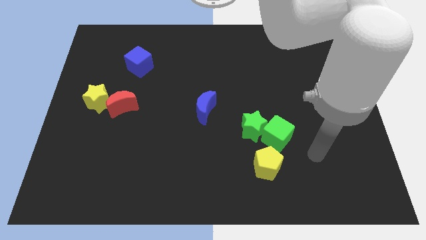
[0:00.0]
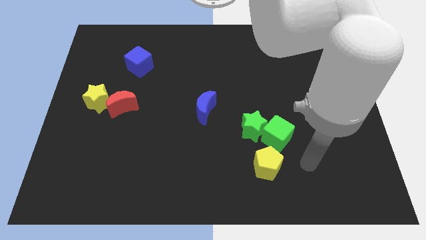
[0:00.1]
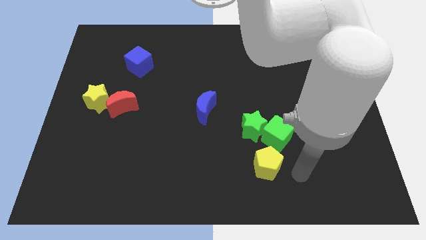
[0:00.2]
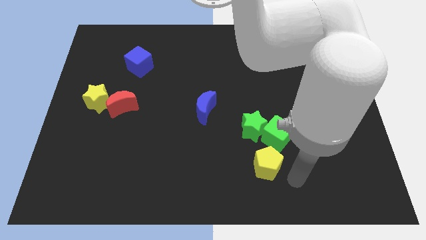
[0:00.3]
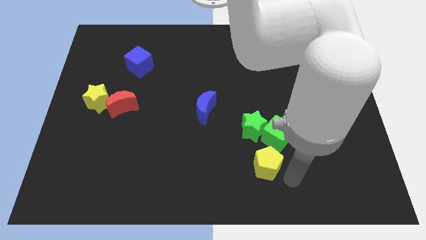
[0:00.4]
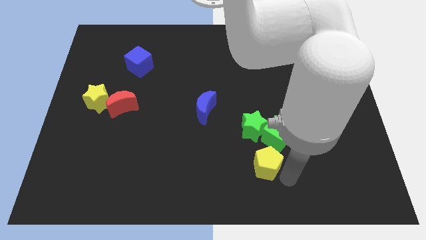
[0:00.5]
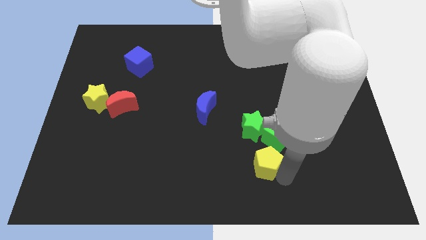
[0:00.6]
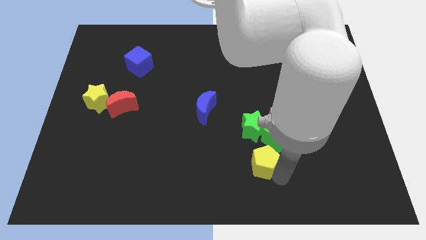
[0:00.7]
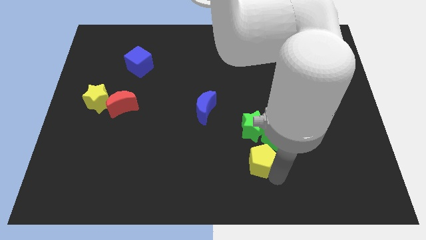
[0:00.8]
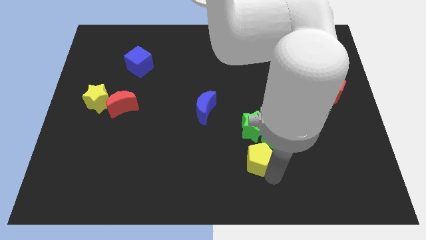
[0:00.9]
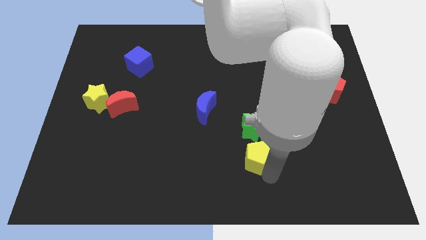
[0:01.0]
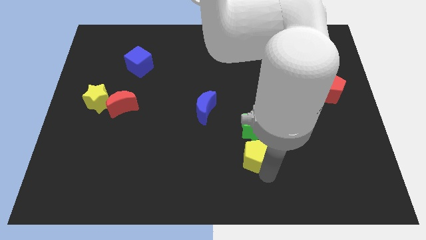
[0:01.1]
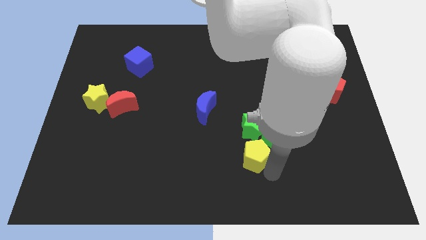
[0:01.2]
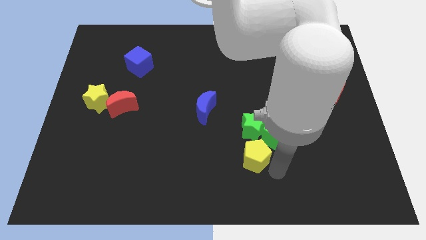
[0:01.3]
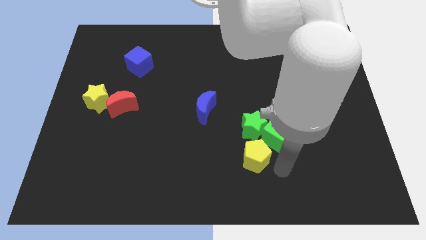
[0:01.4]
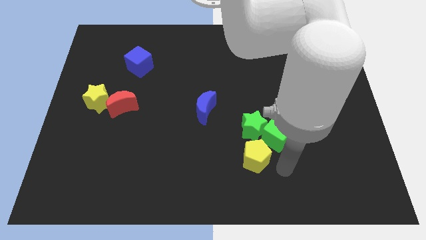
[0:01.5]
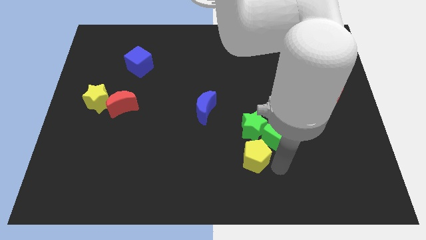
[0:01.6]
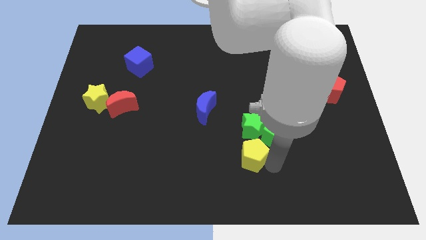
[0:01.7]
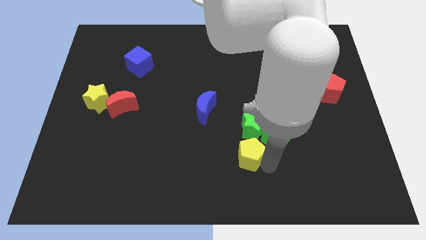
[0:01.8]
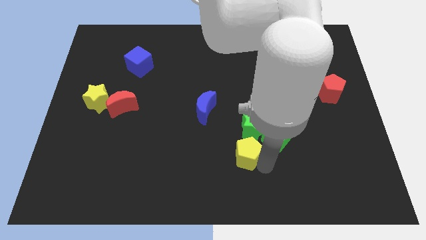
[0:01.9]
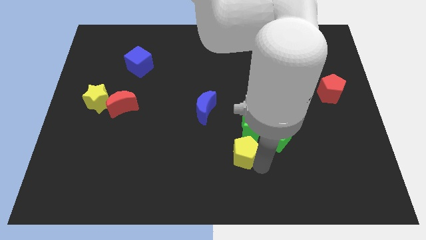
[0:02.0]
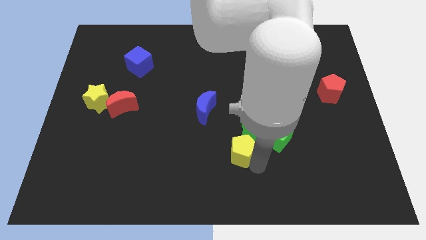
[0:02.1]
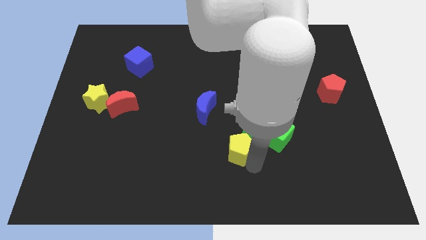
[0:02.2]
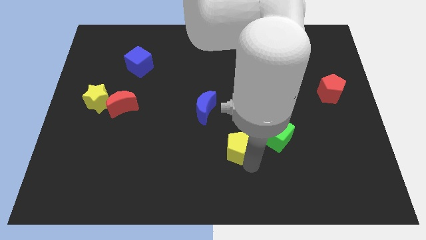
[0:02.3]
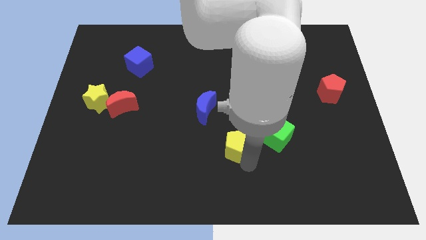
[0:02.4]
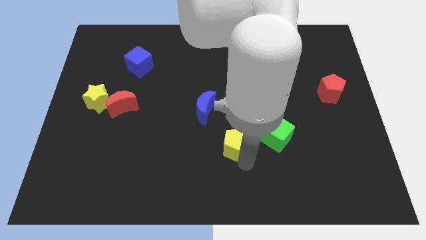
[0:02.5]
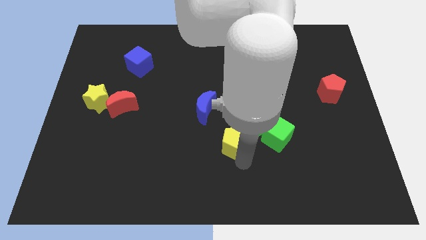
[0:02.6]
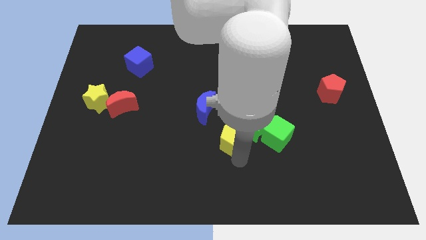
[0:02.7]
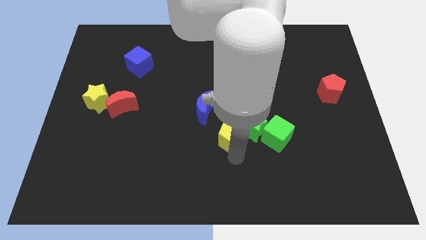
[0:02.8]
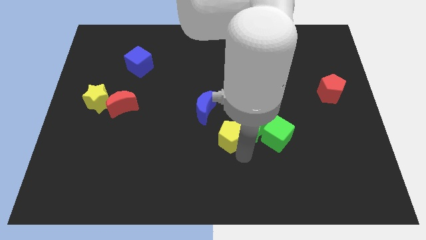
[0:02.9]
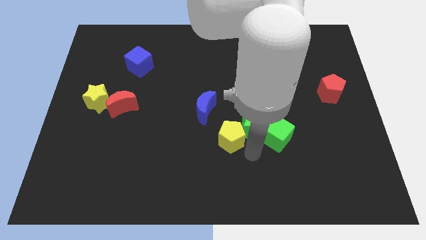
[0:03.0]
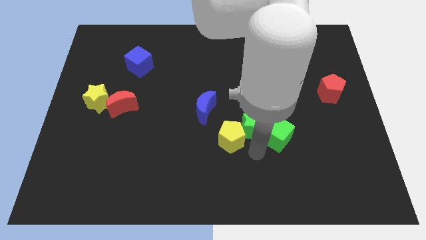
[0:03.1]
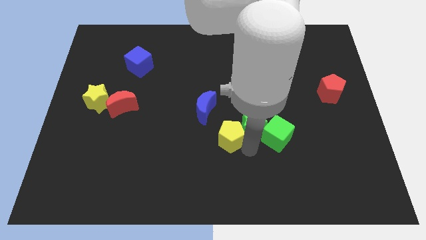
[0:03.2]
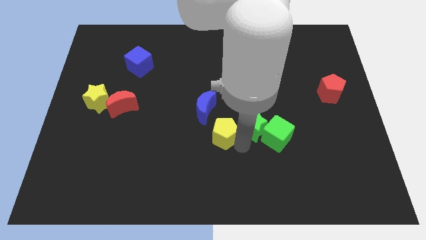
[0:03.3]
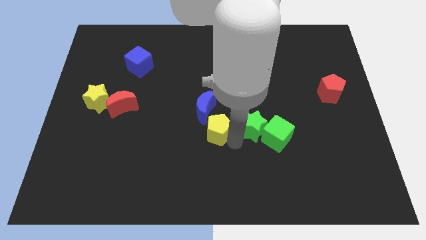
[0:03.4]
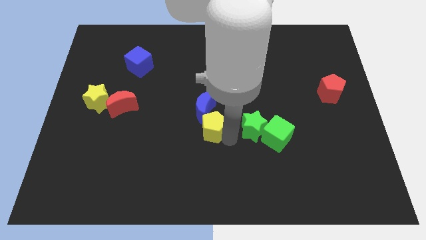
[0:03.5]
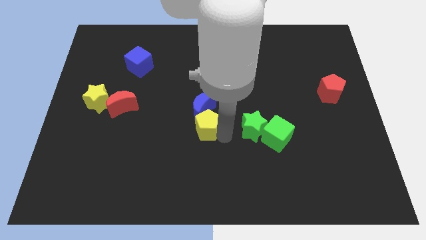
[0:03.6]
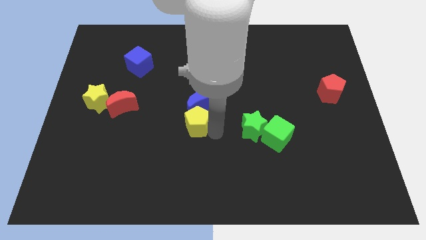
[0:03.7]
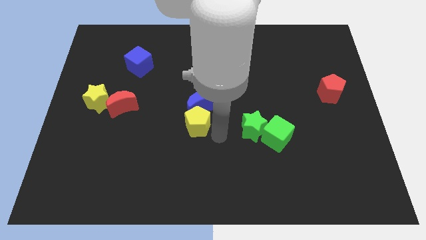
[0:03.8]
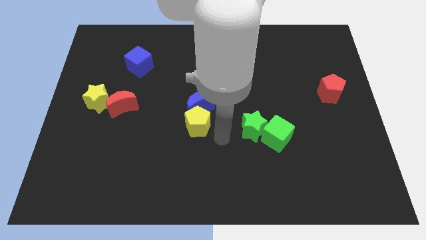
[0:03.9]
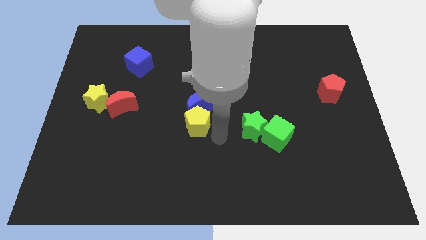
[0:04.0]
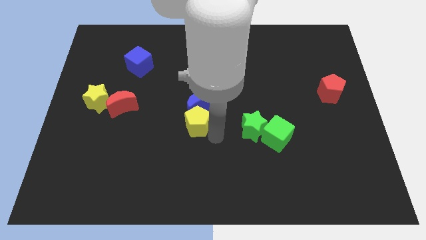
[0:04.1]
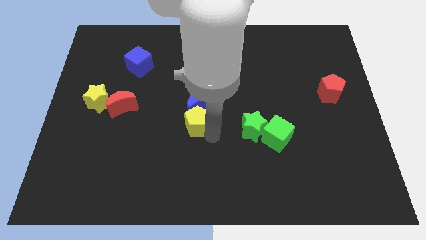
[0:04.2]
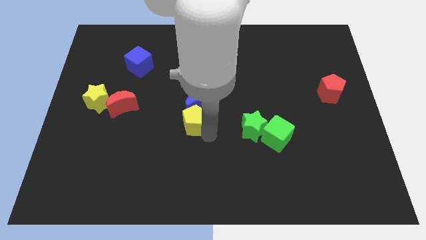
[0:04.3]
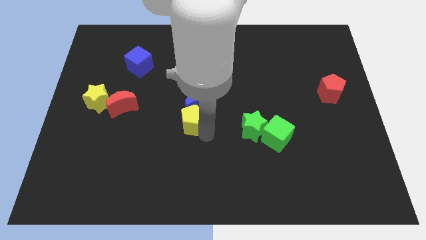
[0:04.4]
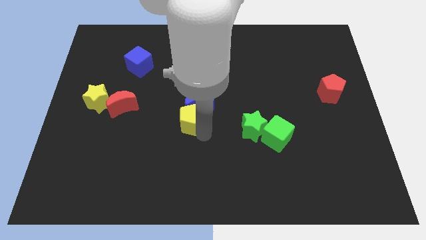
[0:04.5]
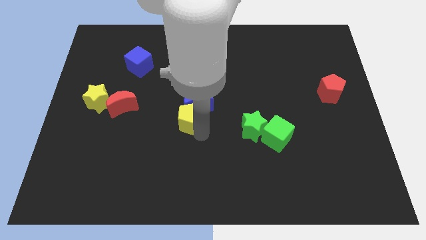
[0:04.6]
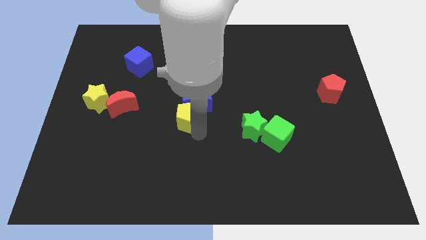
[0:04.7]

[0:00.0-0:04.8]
move the yellow pentagon up and then left

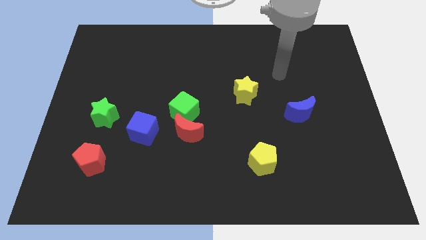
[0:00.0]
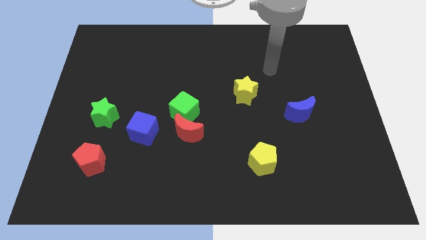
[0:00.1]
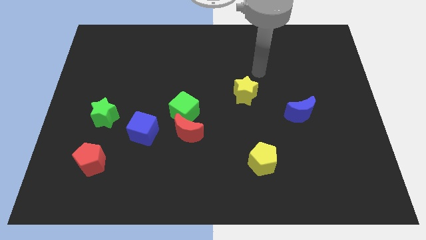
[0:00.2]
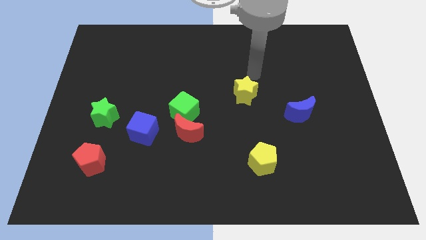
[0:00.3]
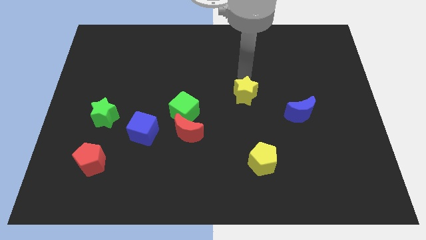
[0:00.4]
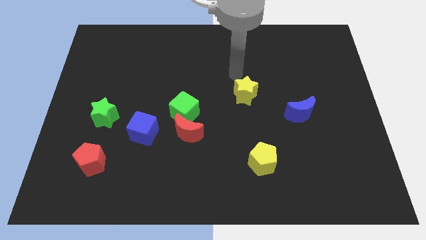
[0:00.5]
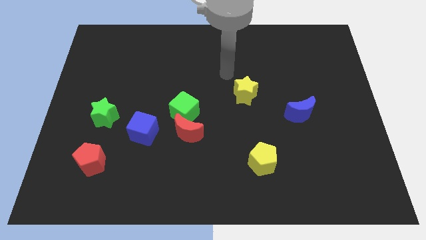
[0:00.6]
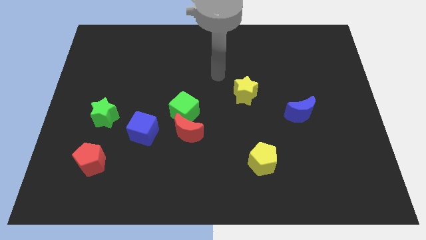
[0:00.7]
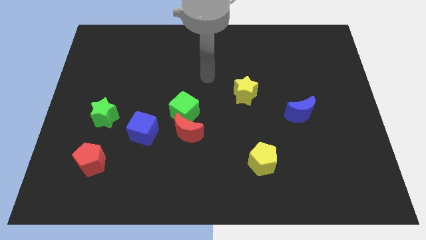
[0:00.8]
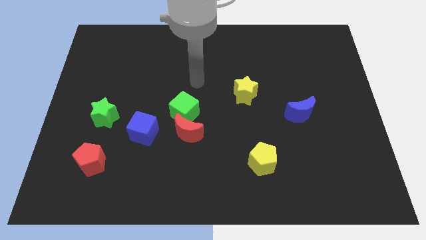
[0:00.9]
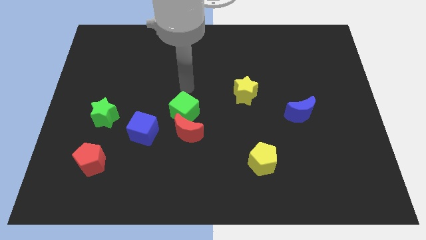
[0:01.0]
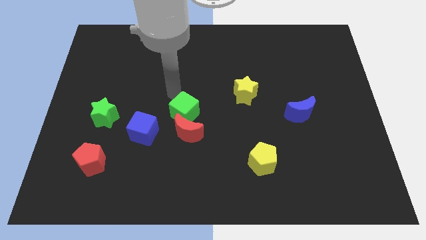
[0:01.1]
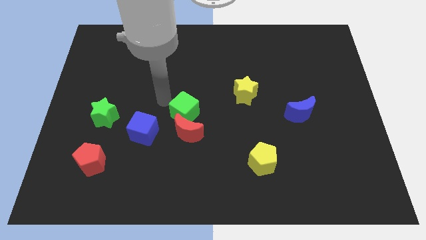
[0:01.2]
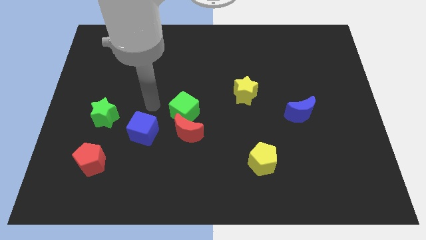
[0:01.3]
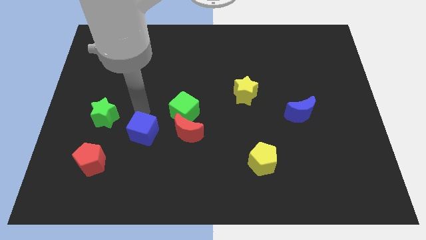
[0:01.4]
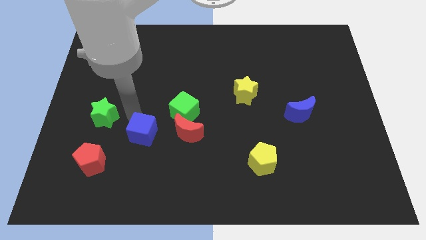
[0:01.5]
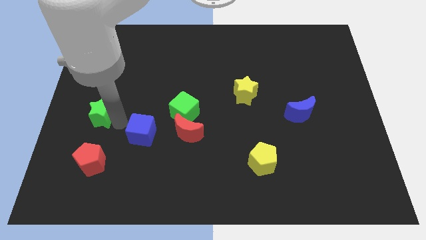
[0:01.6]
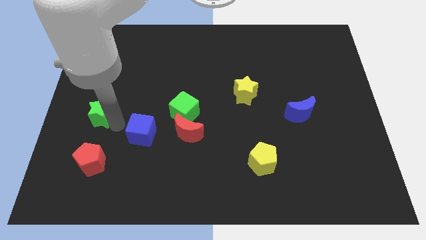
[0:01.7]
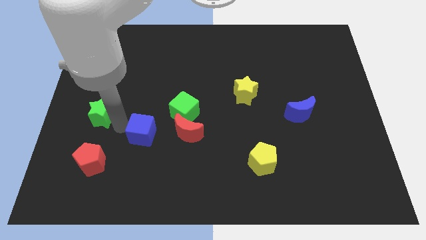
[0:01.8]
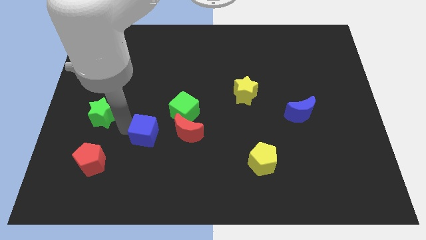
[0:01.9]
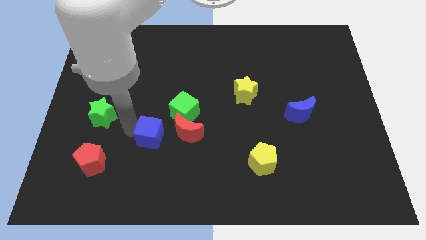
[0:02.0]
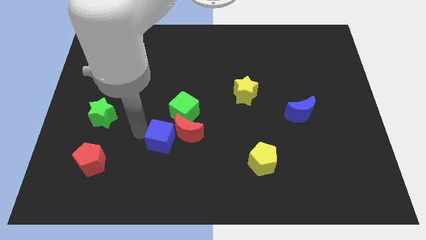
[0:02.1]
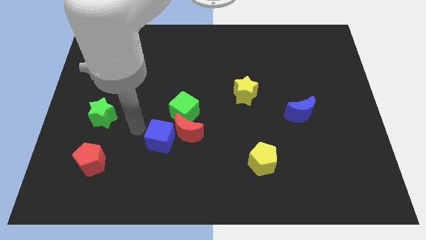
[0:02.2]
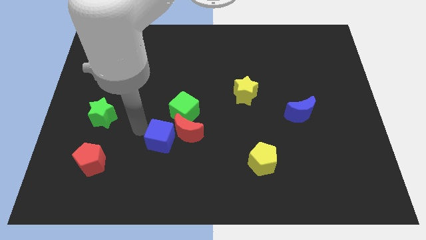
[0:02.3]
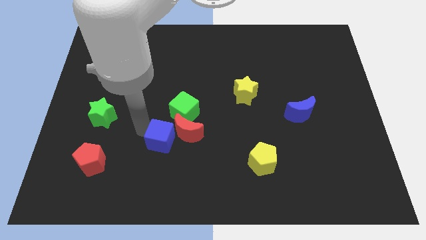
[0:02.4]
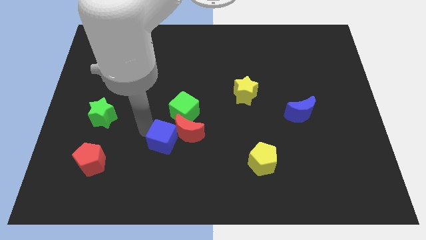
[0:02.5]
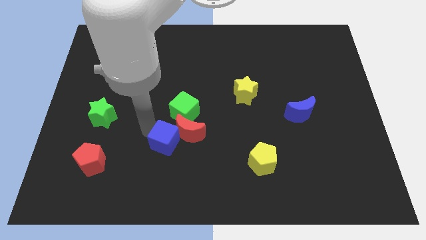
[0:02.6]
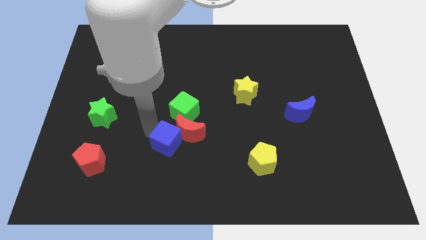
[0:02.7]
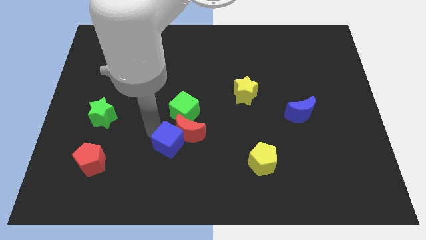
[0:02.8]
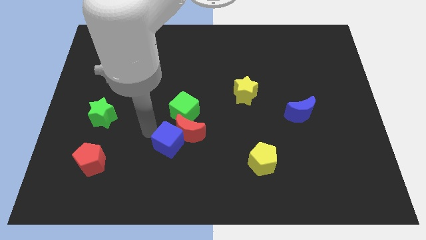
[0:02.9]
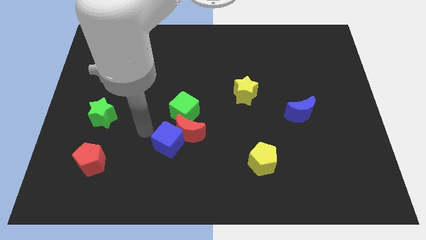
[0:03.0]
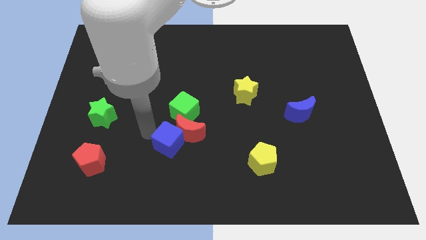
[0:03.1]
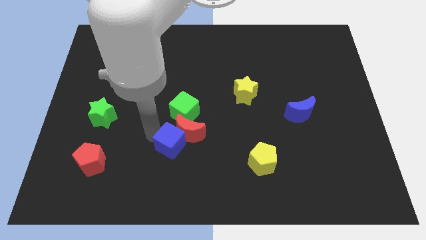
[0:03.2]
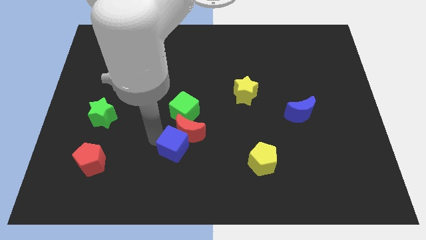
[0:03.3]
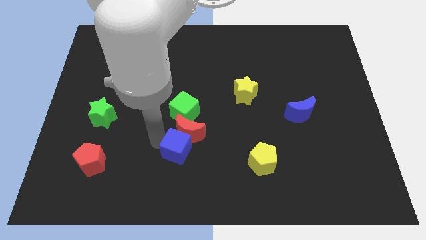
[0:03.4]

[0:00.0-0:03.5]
push the blue cube a bit right

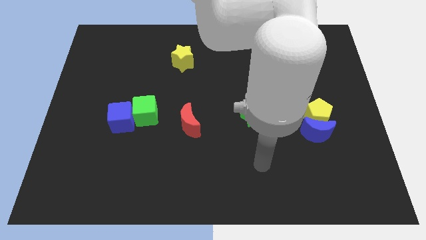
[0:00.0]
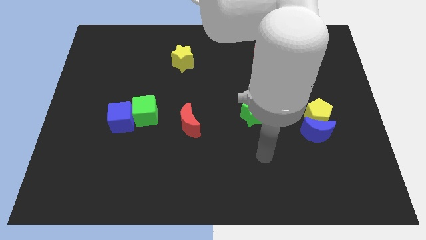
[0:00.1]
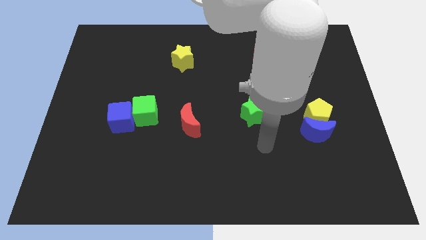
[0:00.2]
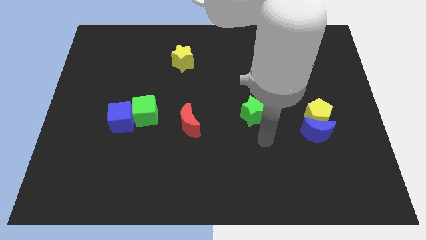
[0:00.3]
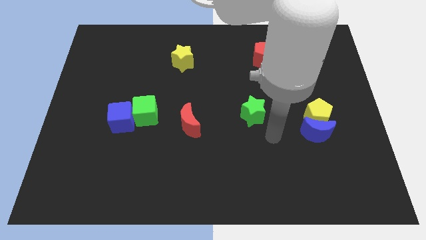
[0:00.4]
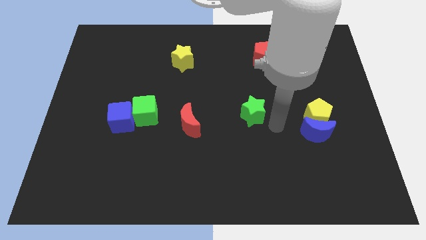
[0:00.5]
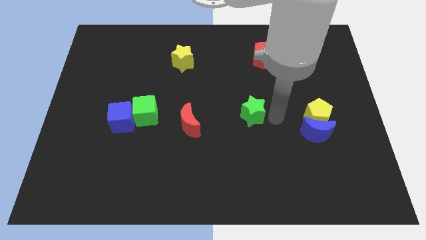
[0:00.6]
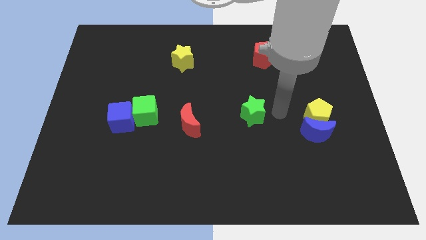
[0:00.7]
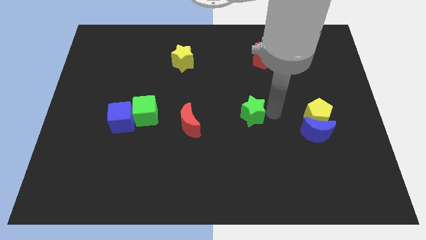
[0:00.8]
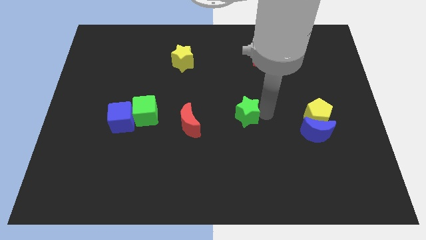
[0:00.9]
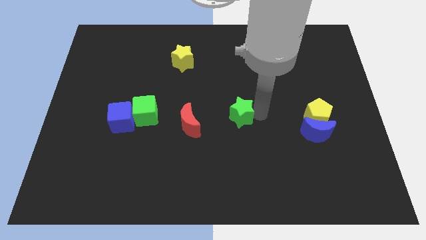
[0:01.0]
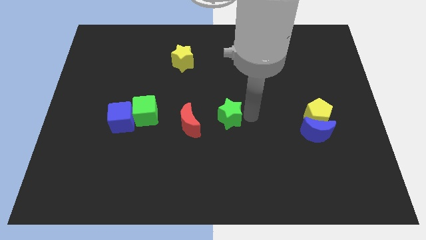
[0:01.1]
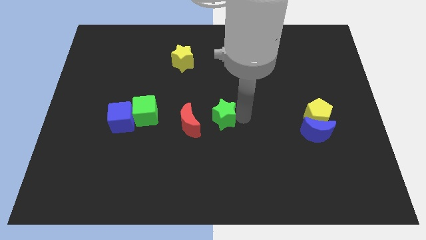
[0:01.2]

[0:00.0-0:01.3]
move the green star to the left a bit
